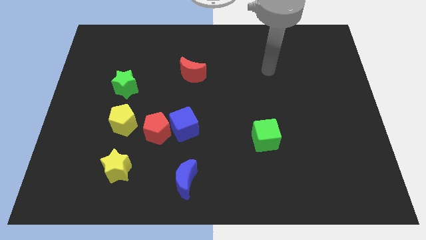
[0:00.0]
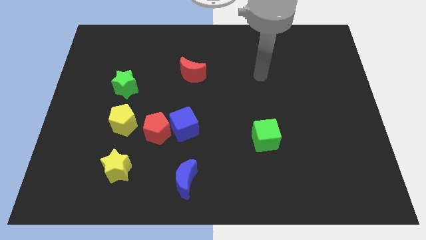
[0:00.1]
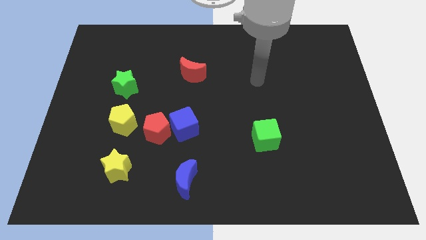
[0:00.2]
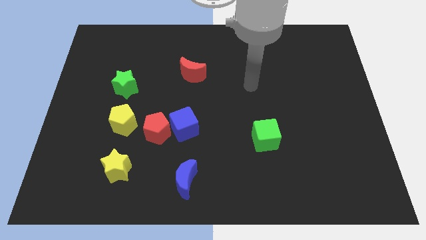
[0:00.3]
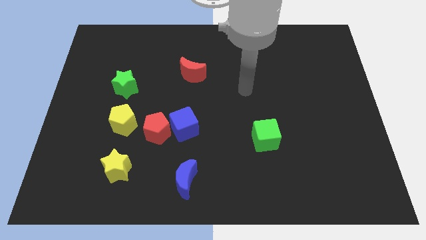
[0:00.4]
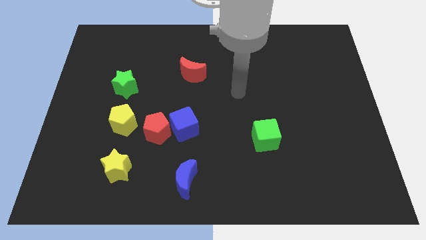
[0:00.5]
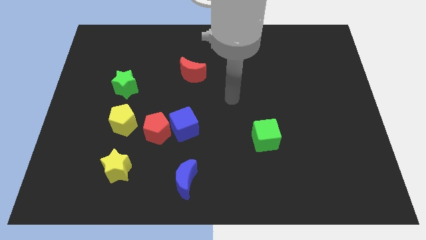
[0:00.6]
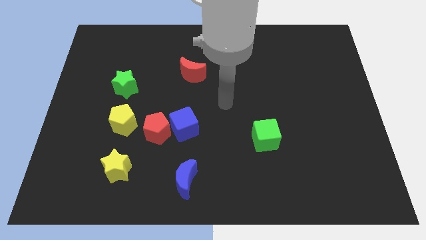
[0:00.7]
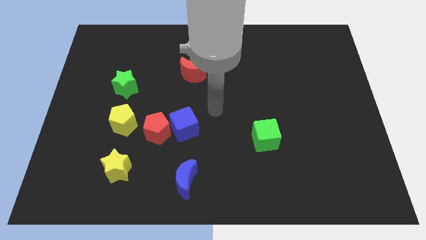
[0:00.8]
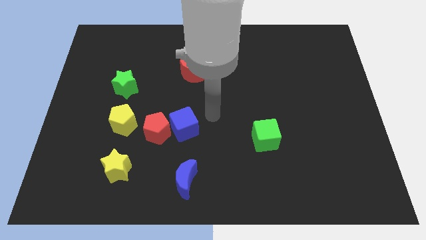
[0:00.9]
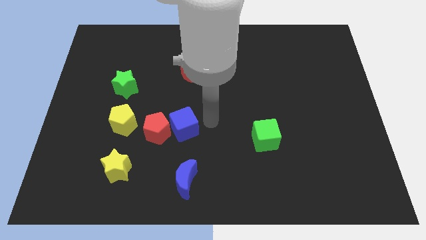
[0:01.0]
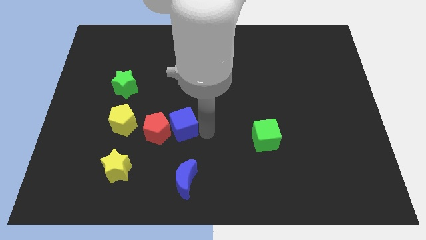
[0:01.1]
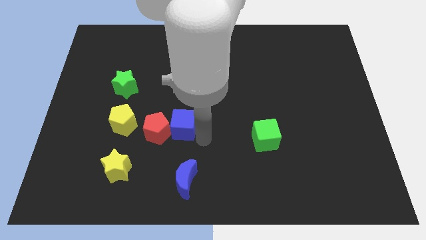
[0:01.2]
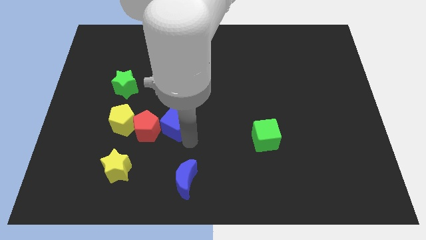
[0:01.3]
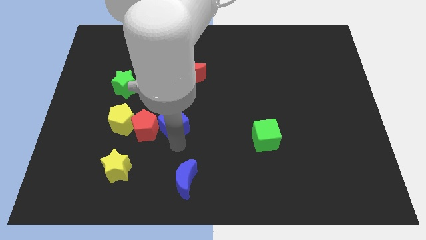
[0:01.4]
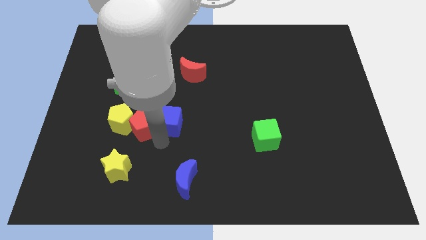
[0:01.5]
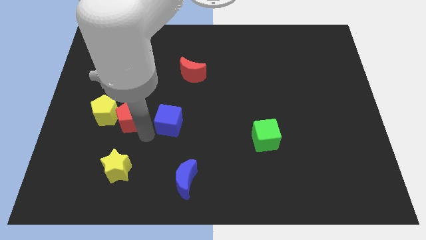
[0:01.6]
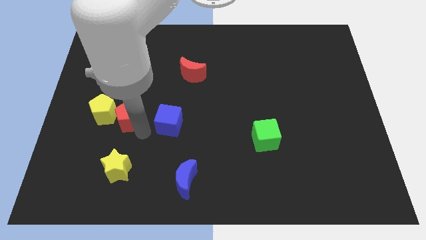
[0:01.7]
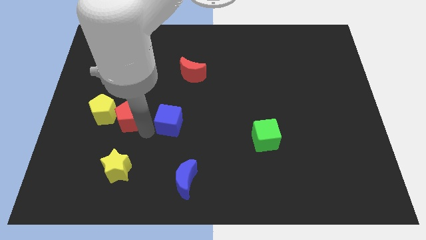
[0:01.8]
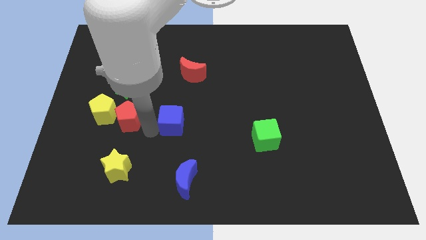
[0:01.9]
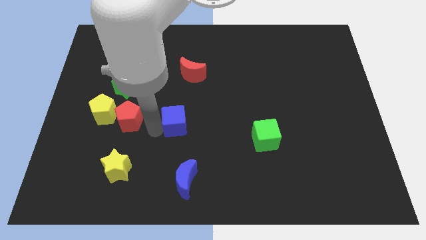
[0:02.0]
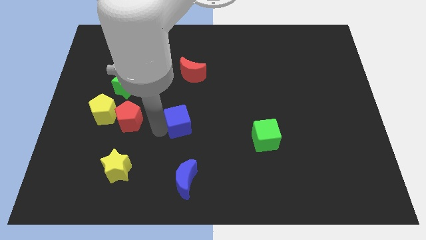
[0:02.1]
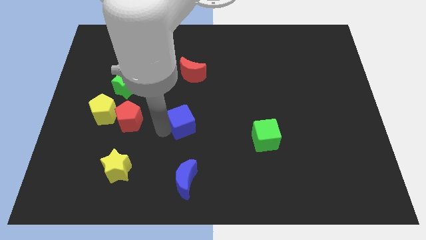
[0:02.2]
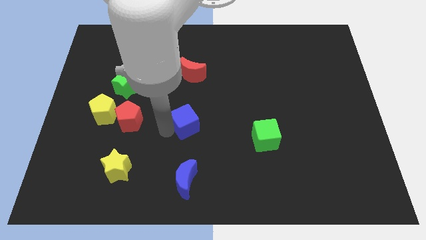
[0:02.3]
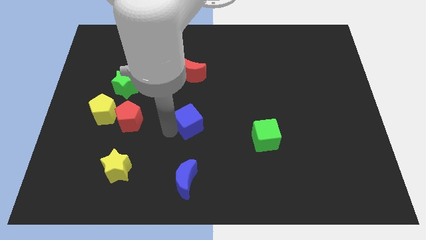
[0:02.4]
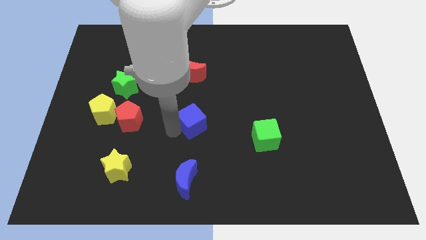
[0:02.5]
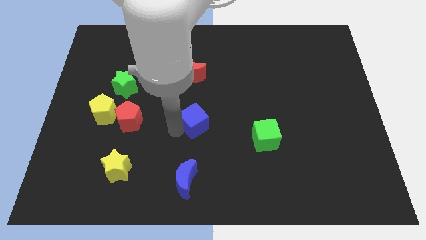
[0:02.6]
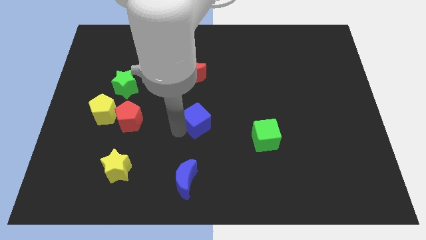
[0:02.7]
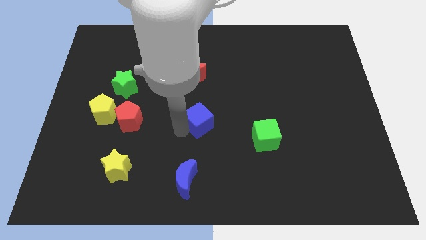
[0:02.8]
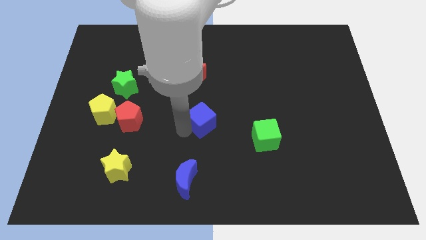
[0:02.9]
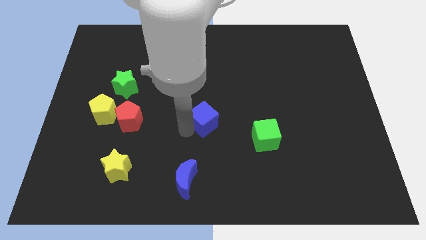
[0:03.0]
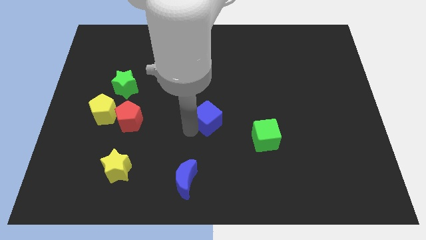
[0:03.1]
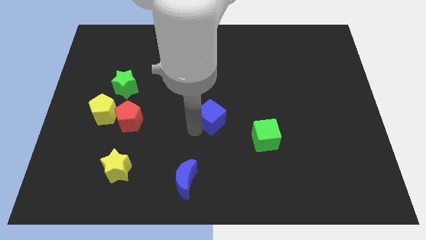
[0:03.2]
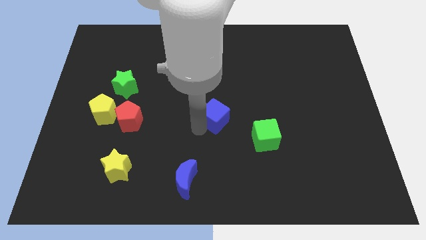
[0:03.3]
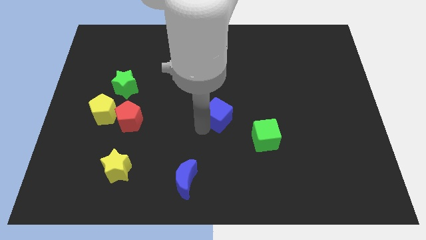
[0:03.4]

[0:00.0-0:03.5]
slightly push the blue cube upwards and right

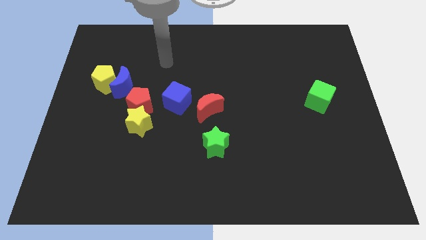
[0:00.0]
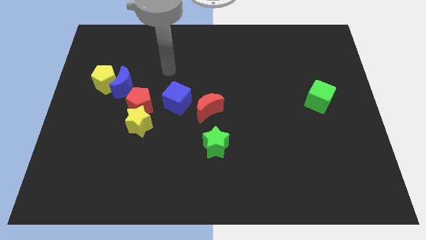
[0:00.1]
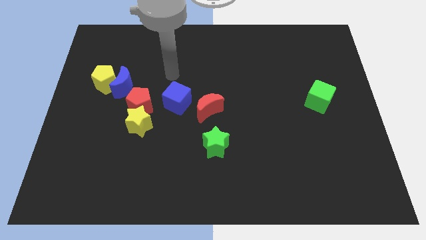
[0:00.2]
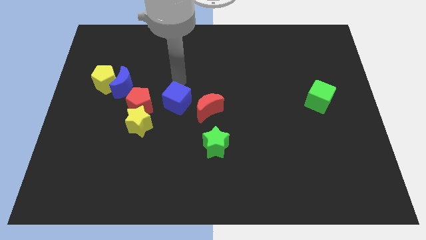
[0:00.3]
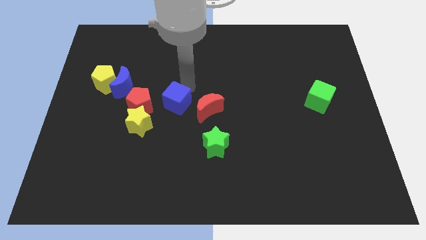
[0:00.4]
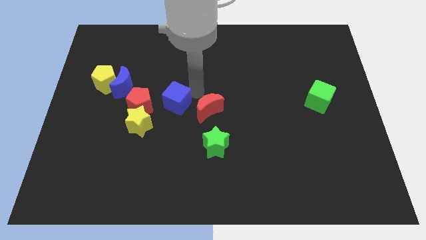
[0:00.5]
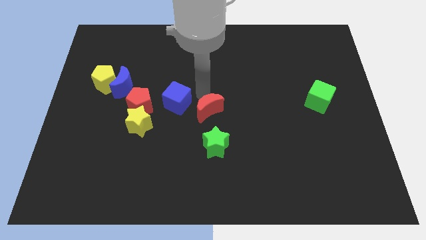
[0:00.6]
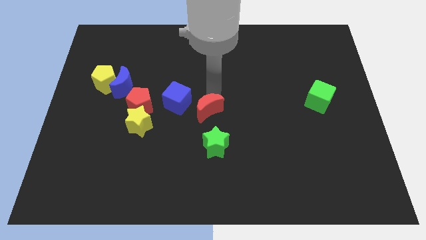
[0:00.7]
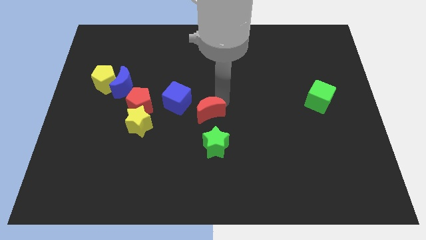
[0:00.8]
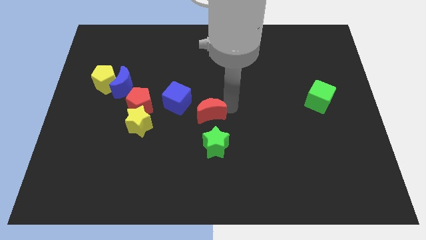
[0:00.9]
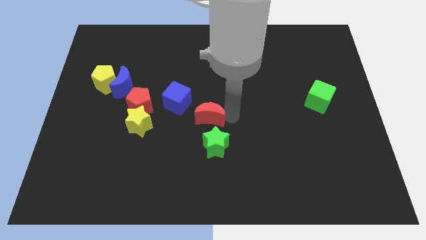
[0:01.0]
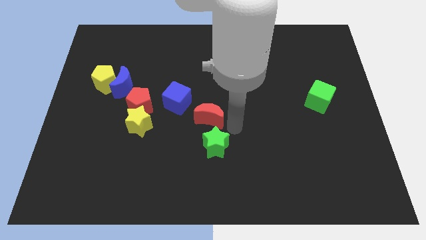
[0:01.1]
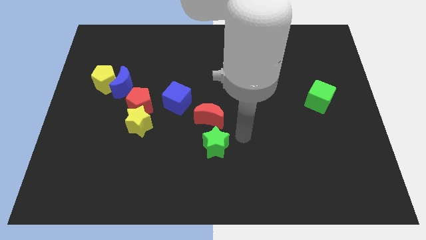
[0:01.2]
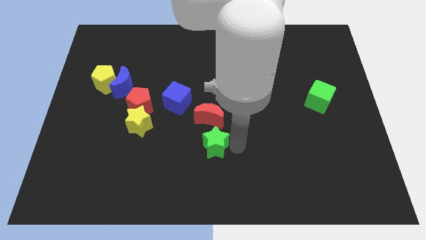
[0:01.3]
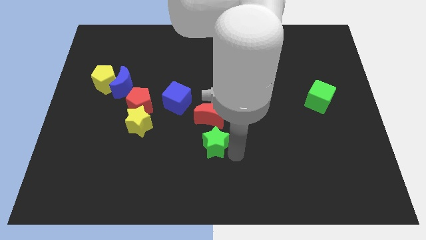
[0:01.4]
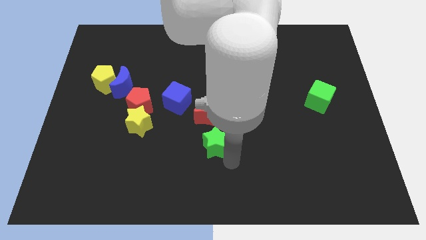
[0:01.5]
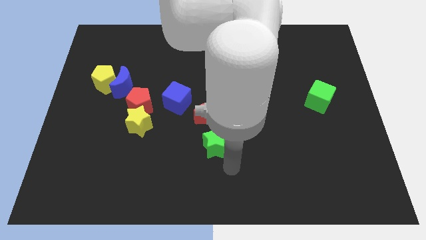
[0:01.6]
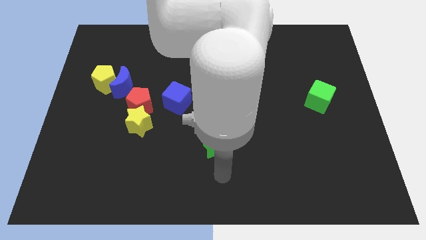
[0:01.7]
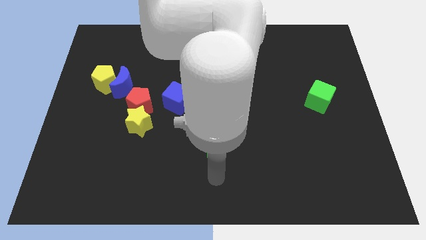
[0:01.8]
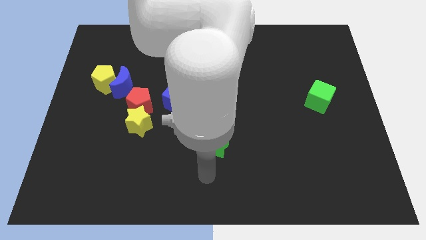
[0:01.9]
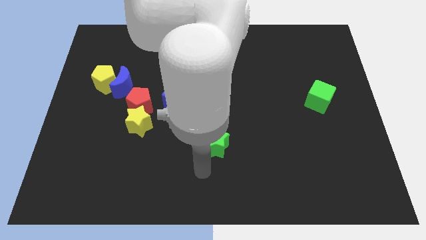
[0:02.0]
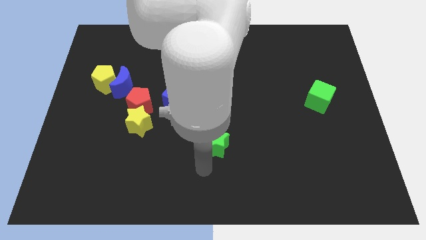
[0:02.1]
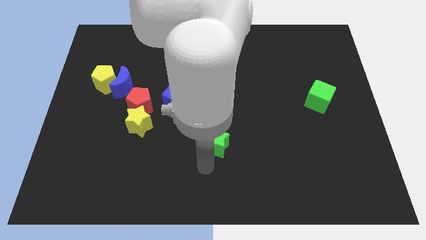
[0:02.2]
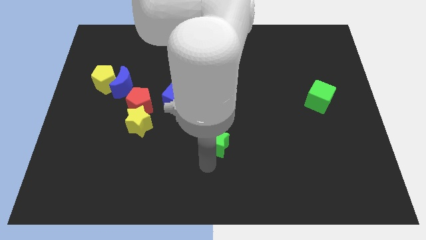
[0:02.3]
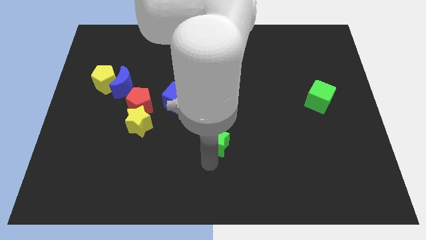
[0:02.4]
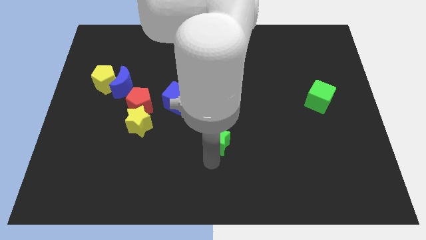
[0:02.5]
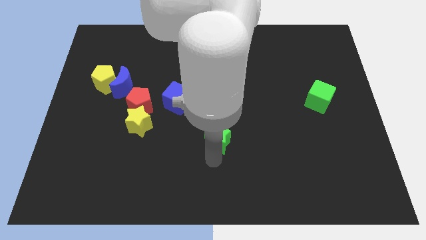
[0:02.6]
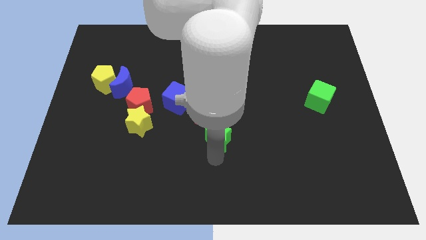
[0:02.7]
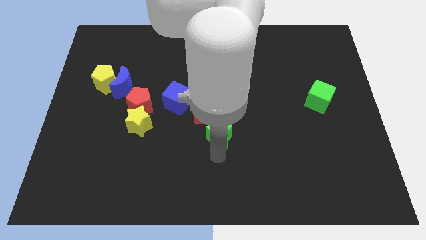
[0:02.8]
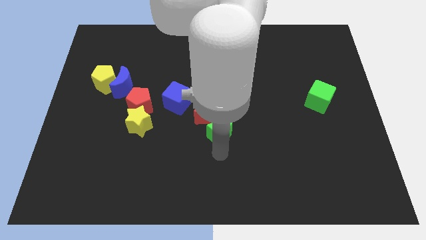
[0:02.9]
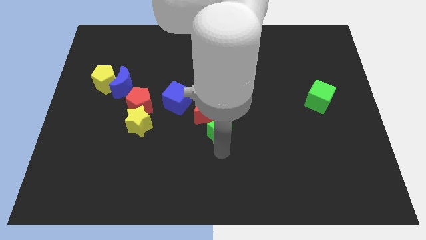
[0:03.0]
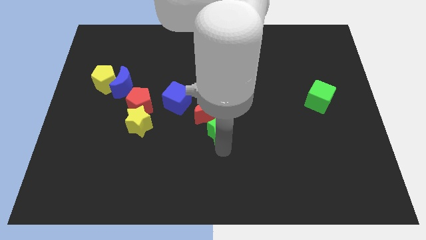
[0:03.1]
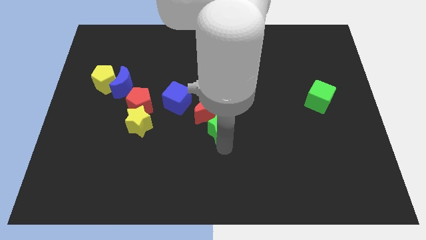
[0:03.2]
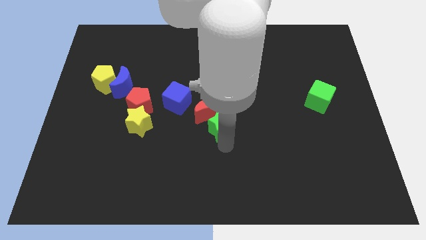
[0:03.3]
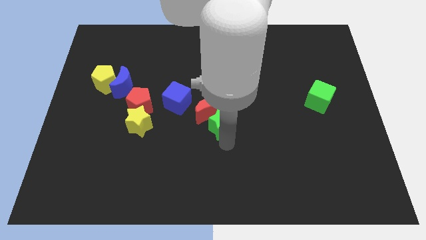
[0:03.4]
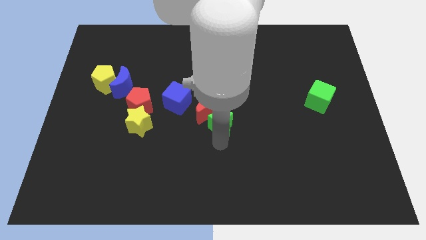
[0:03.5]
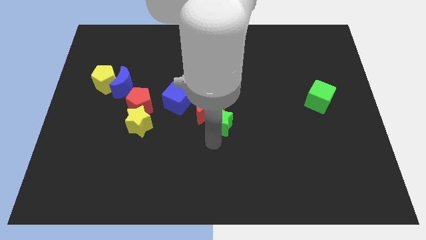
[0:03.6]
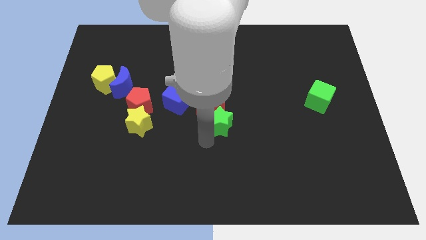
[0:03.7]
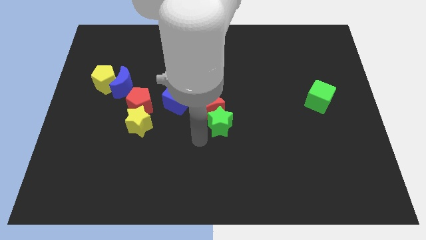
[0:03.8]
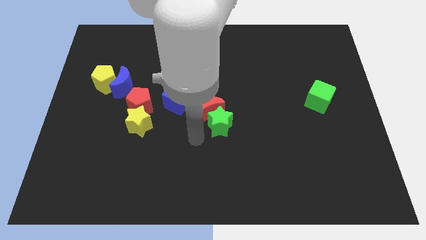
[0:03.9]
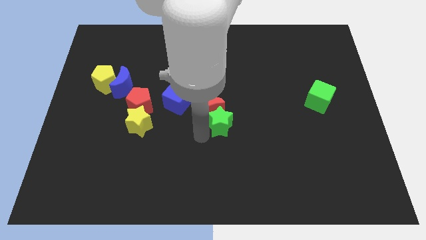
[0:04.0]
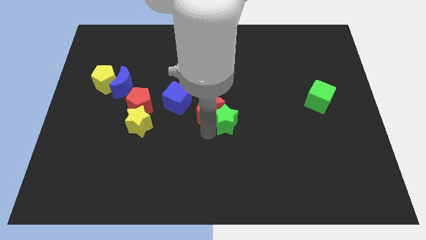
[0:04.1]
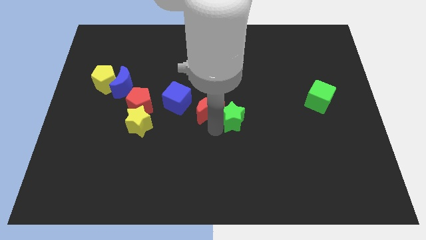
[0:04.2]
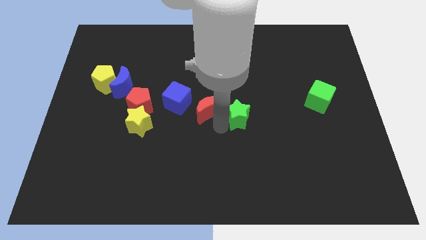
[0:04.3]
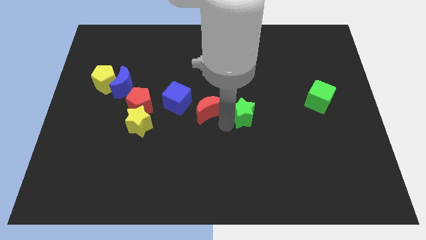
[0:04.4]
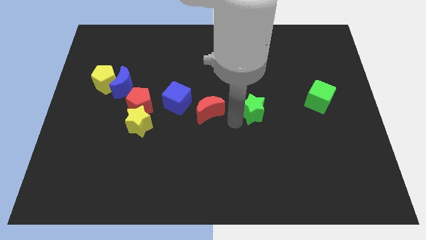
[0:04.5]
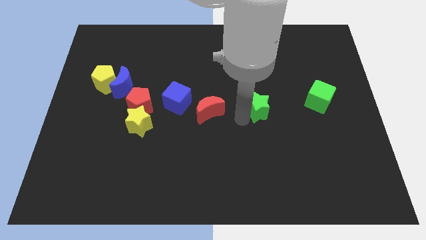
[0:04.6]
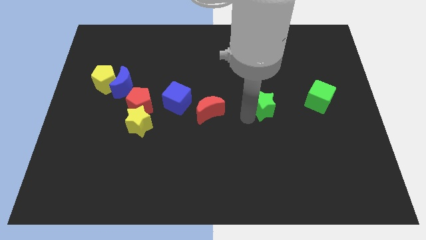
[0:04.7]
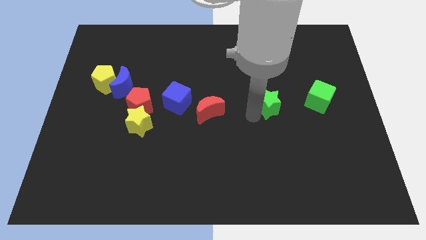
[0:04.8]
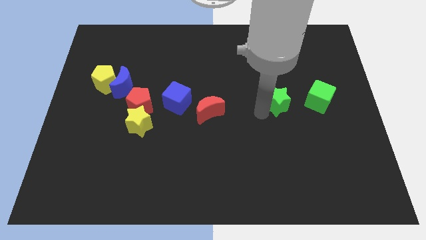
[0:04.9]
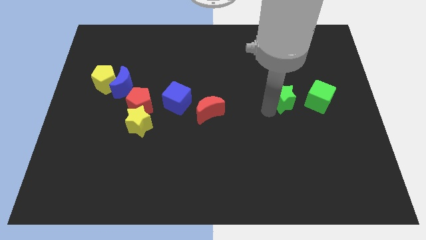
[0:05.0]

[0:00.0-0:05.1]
push the green star diagonally upwards and right
